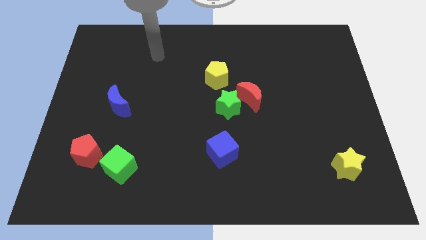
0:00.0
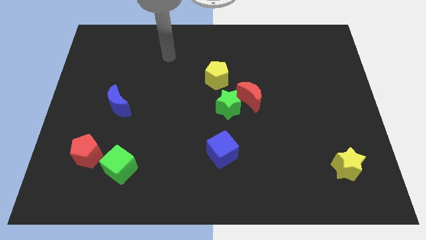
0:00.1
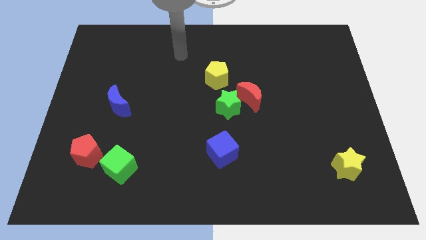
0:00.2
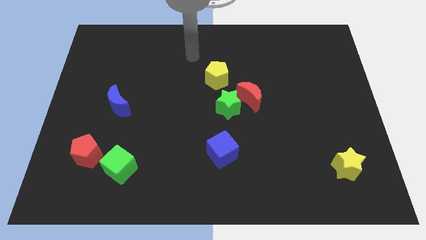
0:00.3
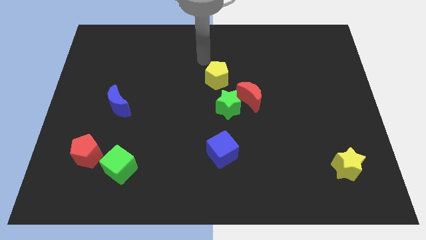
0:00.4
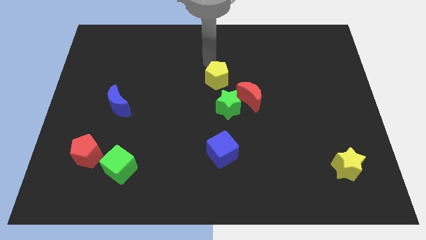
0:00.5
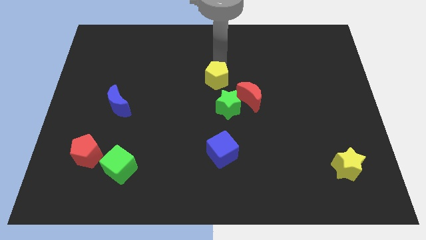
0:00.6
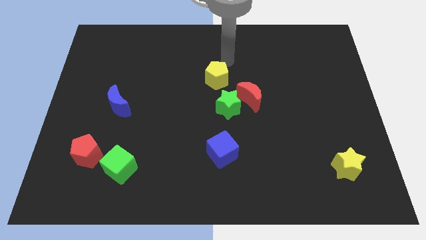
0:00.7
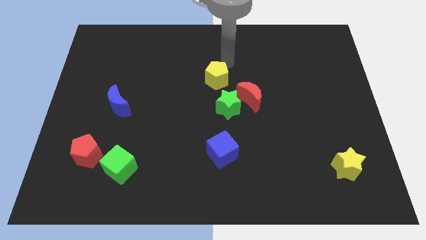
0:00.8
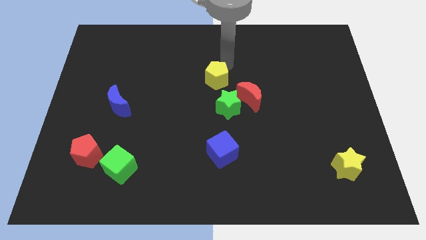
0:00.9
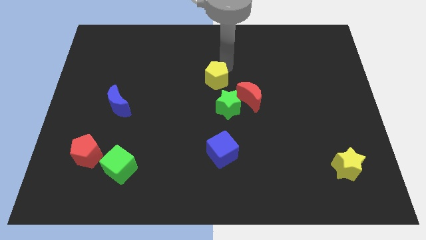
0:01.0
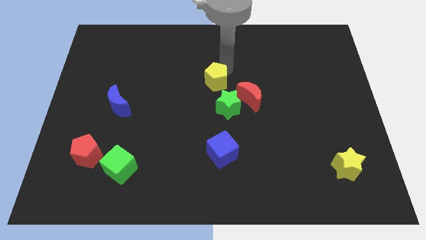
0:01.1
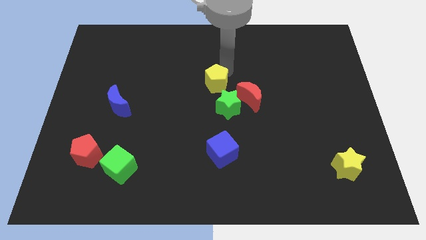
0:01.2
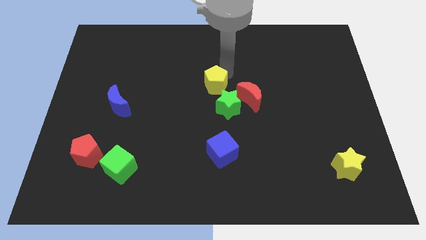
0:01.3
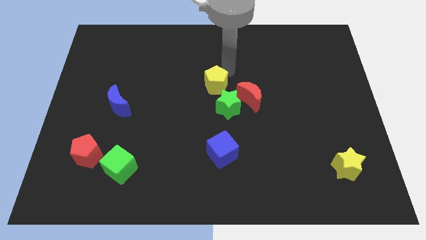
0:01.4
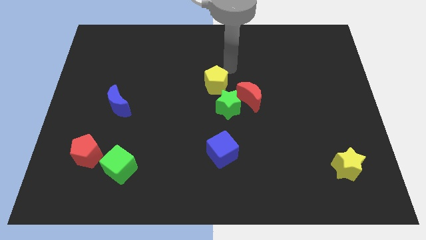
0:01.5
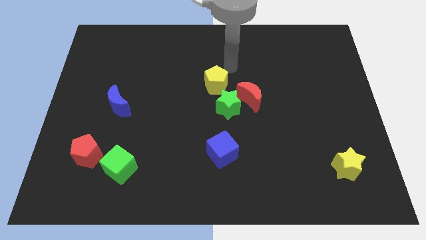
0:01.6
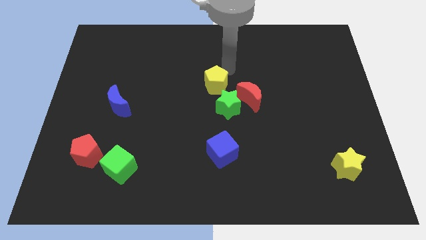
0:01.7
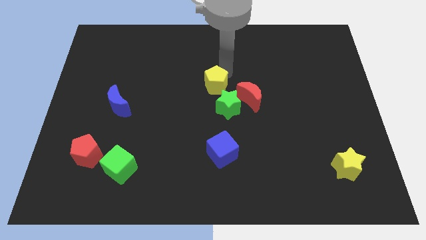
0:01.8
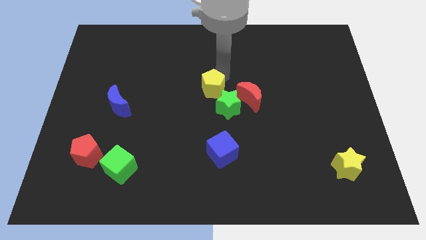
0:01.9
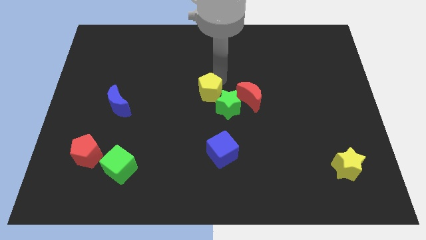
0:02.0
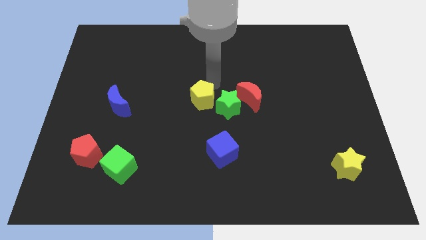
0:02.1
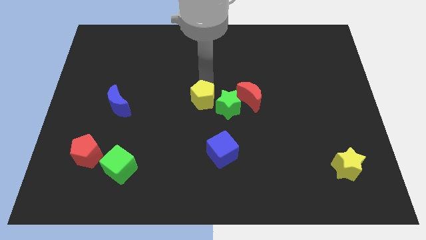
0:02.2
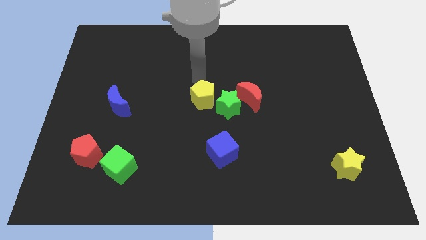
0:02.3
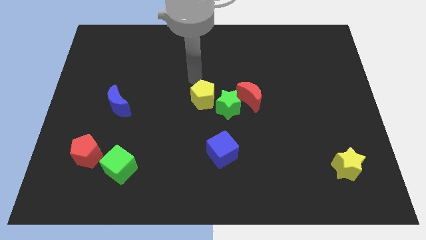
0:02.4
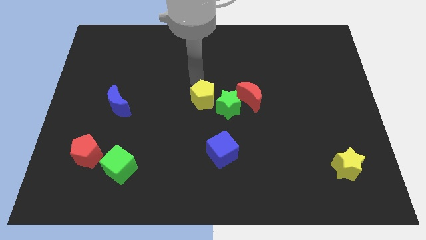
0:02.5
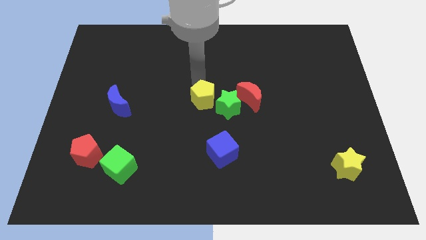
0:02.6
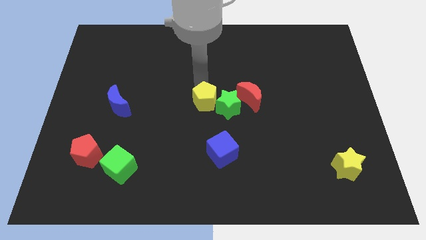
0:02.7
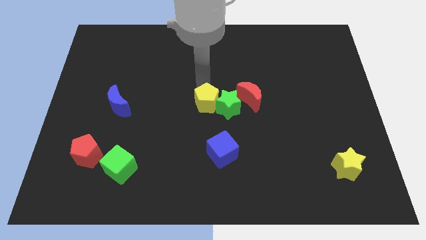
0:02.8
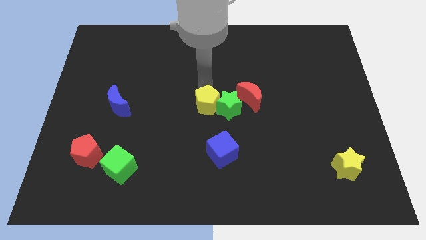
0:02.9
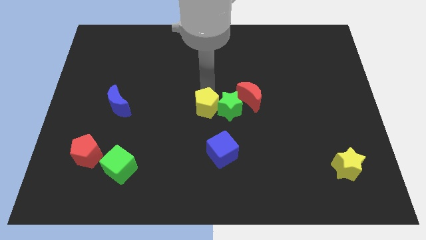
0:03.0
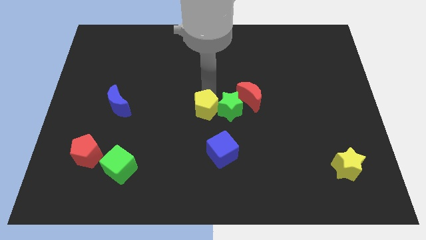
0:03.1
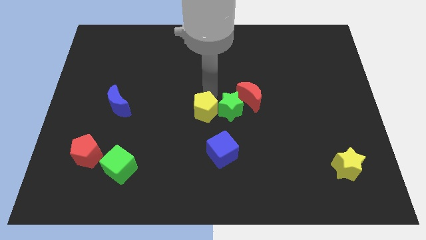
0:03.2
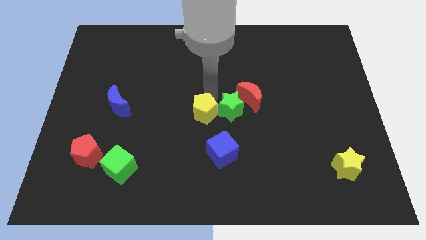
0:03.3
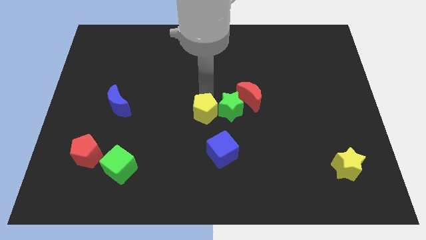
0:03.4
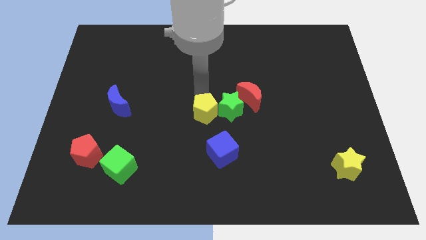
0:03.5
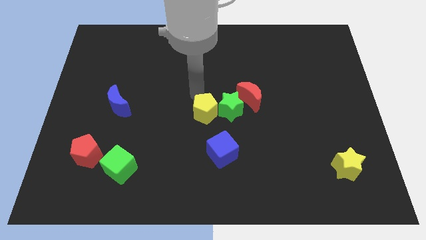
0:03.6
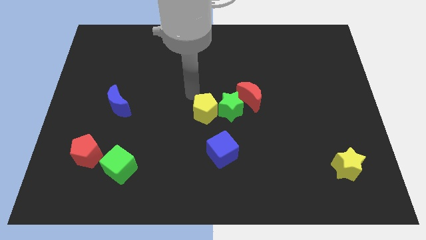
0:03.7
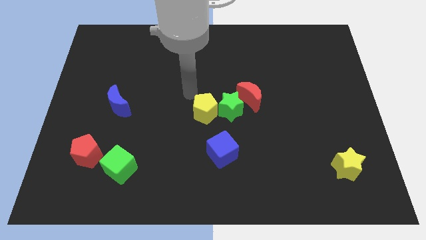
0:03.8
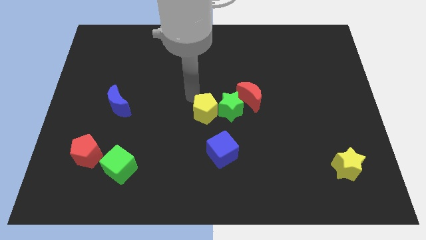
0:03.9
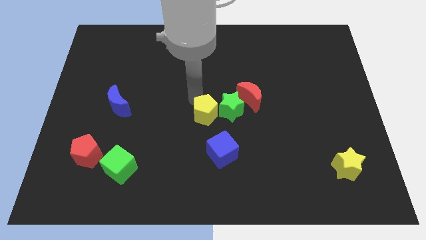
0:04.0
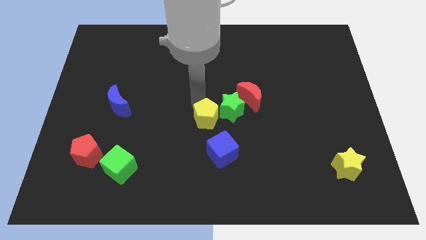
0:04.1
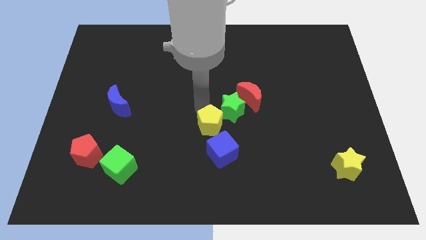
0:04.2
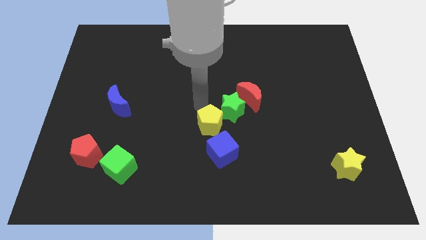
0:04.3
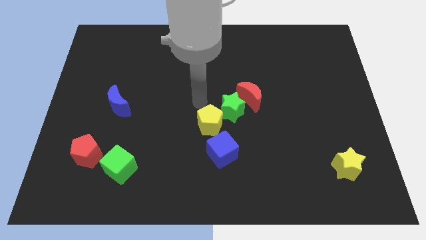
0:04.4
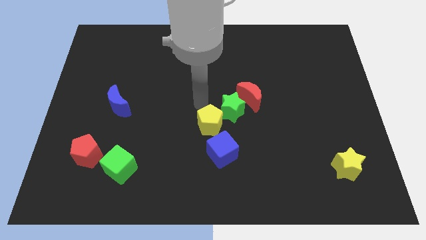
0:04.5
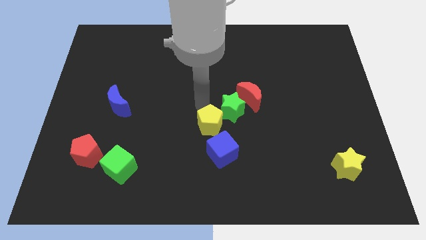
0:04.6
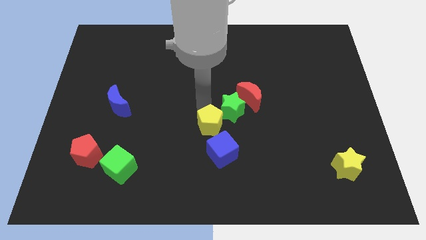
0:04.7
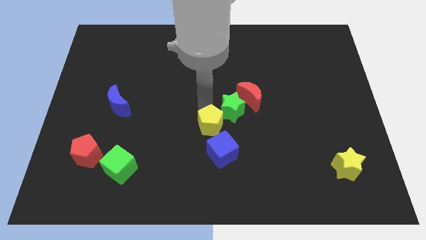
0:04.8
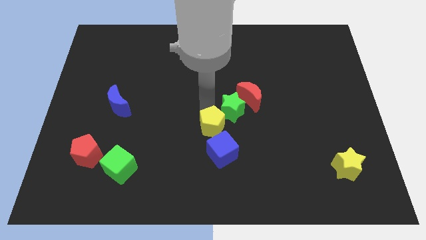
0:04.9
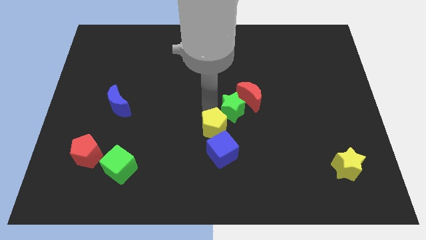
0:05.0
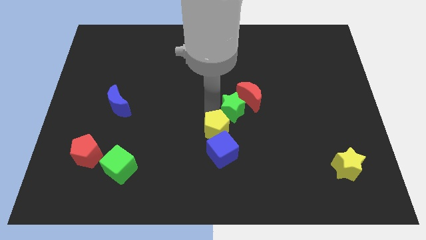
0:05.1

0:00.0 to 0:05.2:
move the yellow pentagon close to the blue cube

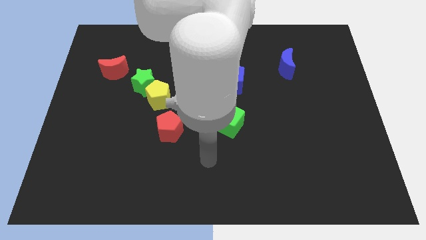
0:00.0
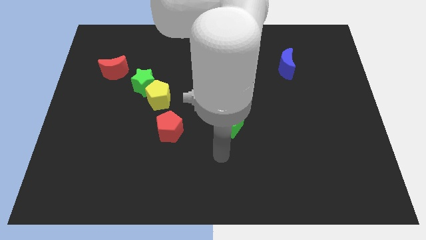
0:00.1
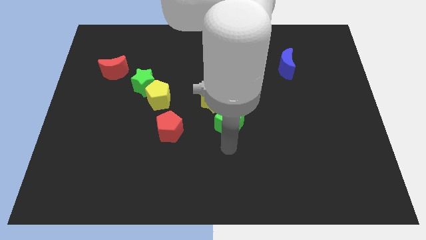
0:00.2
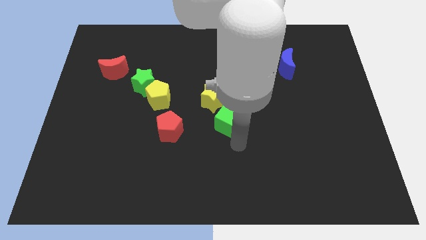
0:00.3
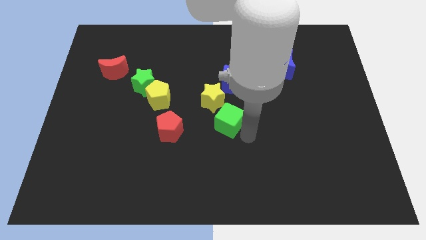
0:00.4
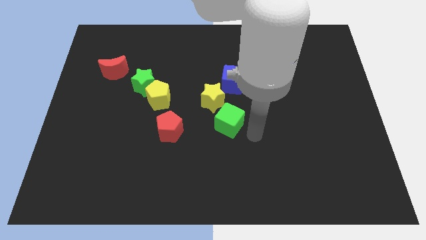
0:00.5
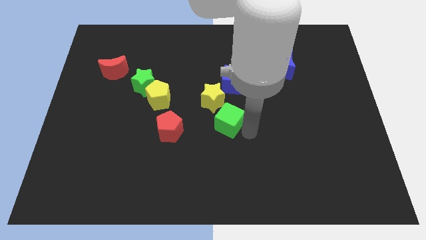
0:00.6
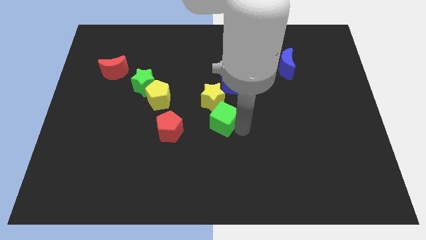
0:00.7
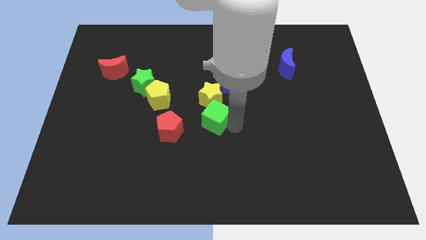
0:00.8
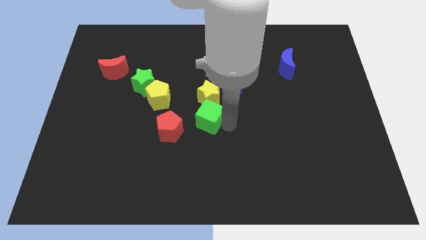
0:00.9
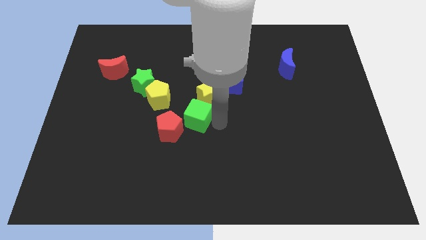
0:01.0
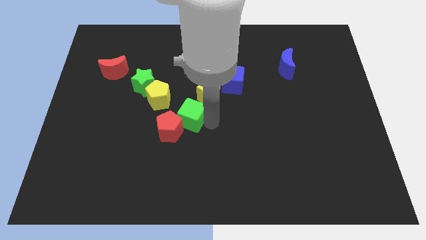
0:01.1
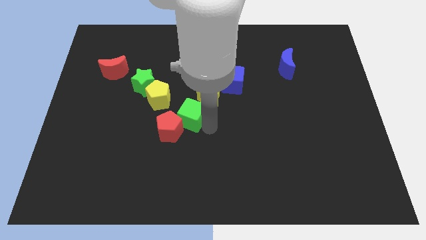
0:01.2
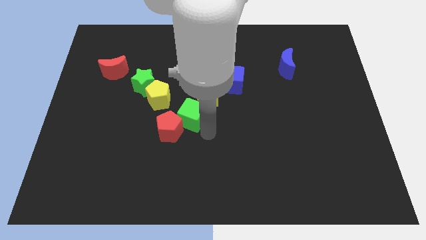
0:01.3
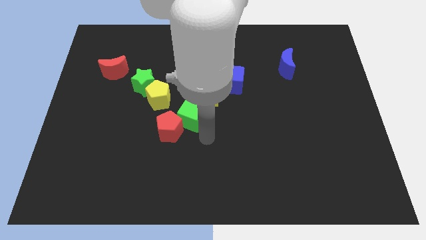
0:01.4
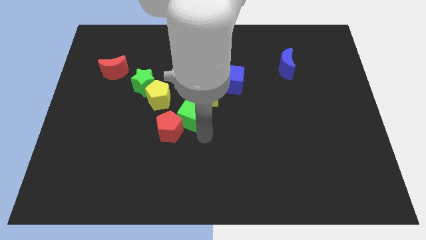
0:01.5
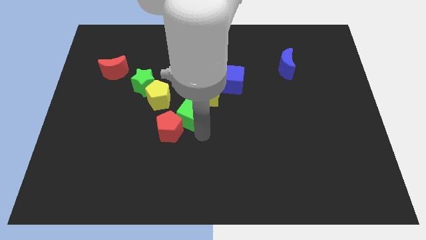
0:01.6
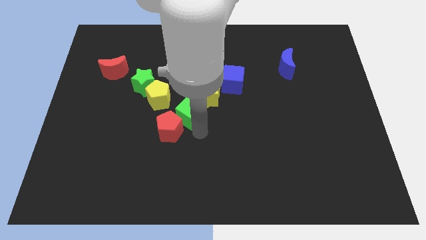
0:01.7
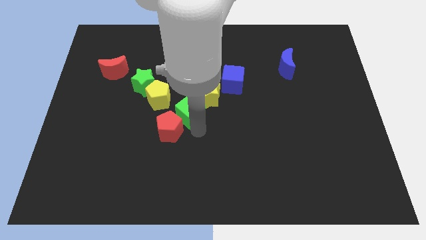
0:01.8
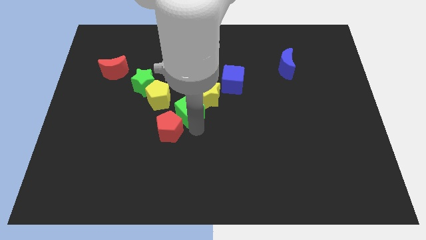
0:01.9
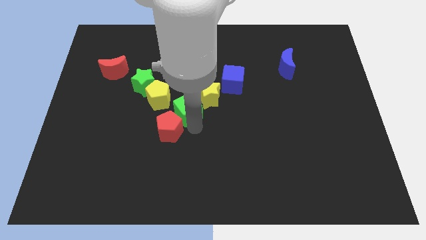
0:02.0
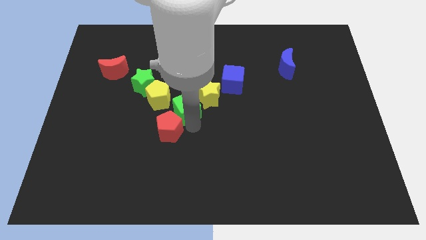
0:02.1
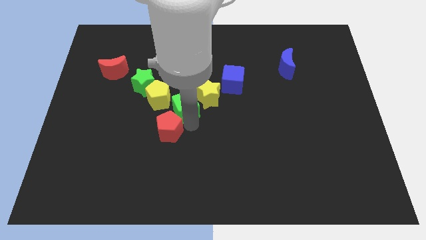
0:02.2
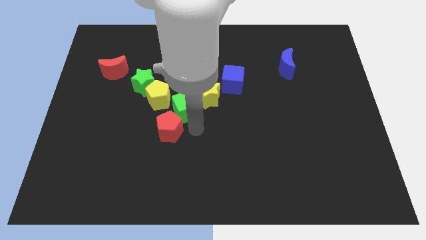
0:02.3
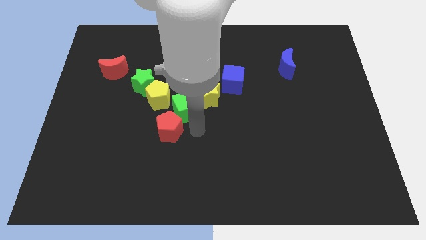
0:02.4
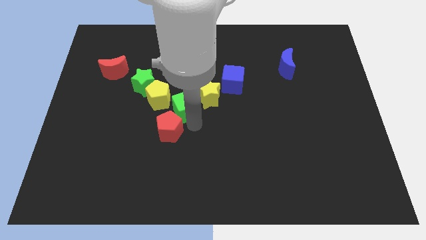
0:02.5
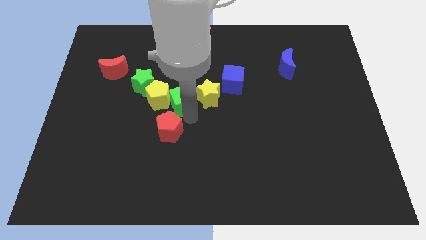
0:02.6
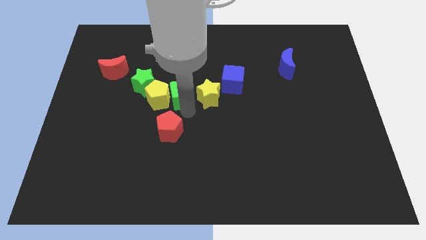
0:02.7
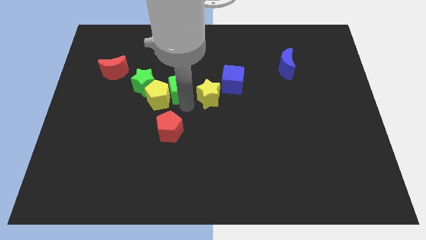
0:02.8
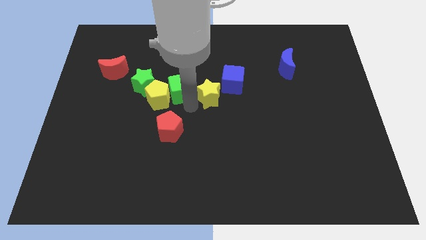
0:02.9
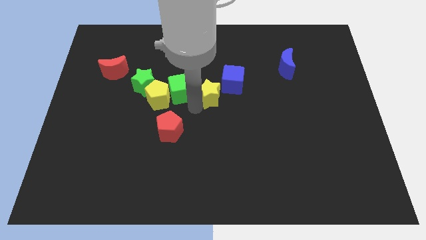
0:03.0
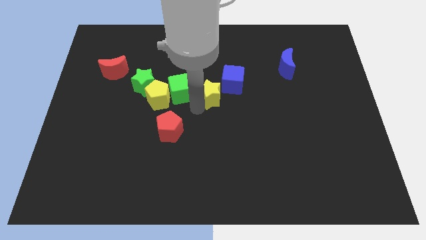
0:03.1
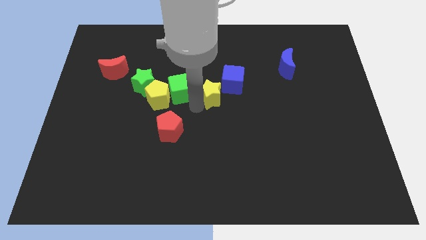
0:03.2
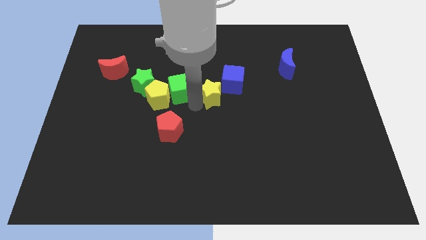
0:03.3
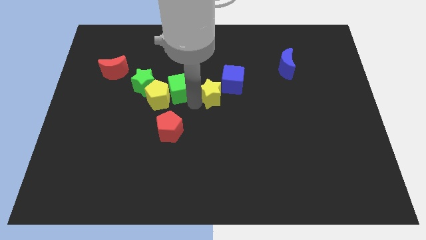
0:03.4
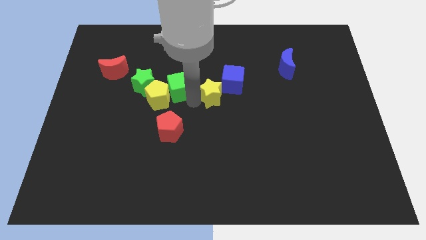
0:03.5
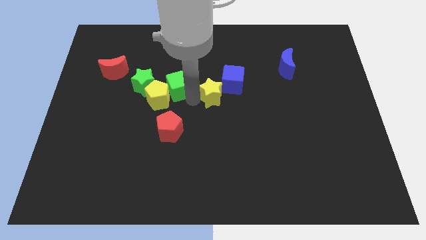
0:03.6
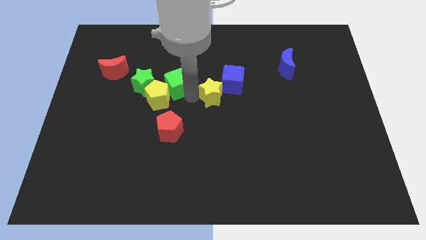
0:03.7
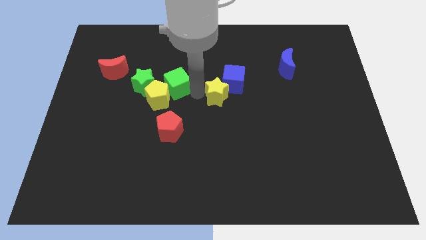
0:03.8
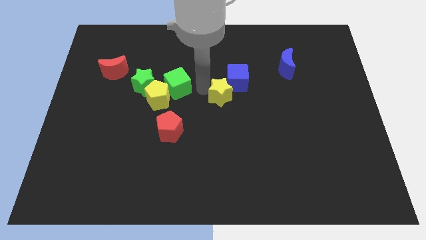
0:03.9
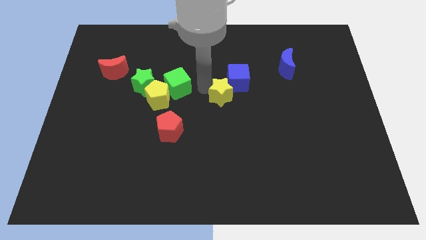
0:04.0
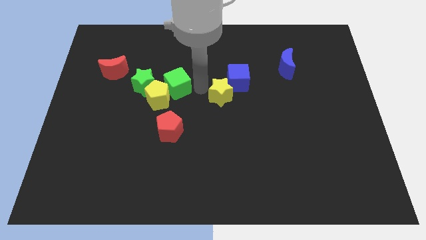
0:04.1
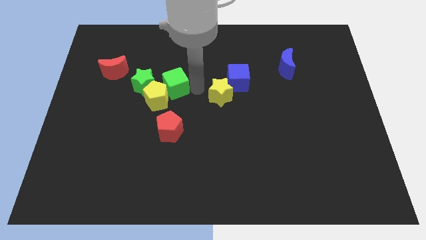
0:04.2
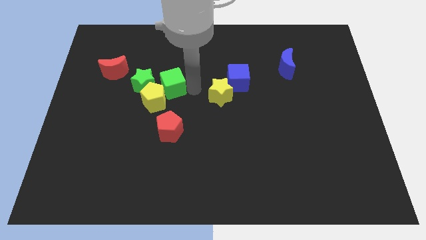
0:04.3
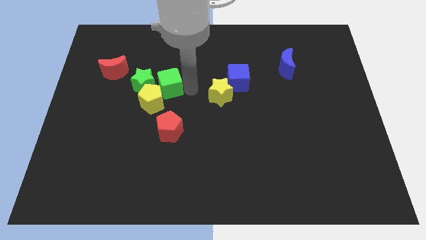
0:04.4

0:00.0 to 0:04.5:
slide the green cube towards the green star
